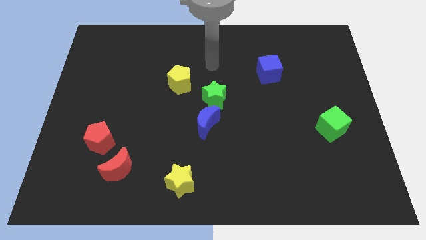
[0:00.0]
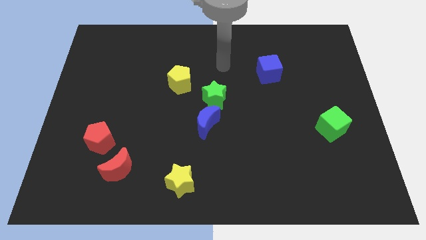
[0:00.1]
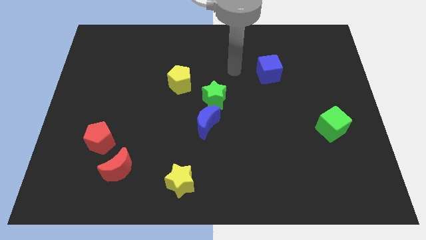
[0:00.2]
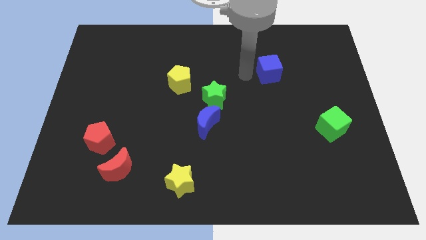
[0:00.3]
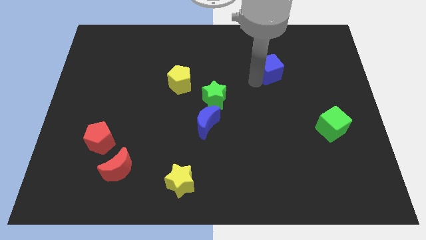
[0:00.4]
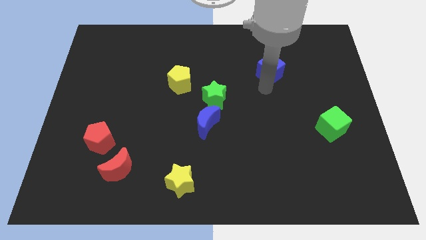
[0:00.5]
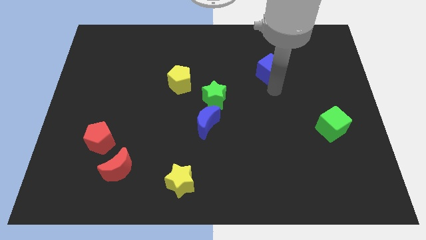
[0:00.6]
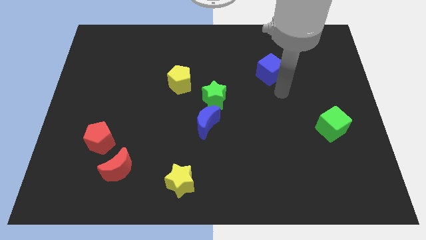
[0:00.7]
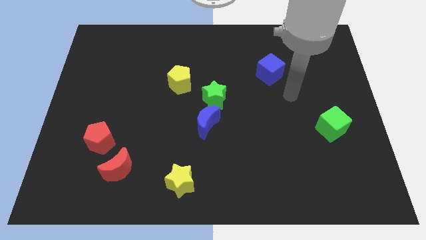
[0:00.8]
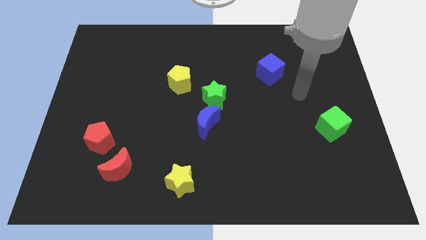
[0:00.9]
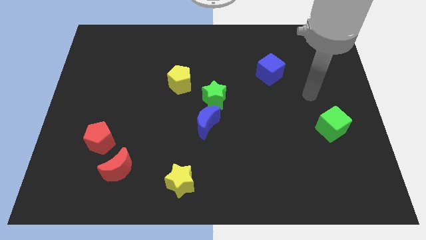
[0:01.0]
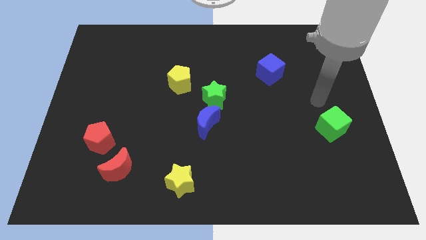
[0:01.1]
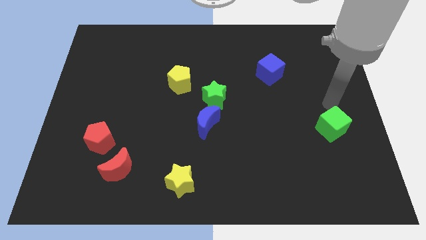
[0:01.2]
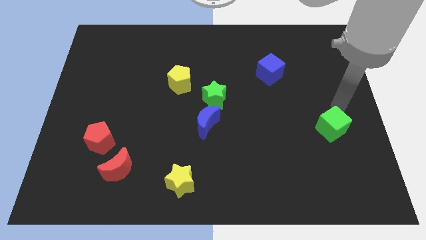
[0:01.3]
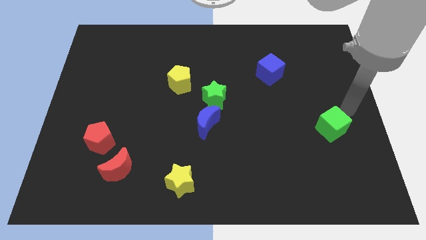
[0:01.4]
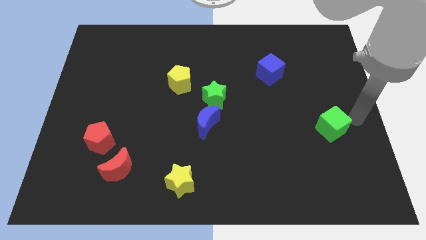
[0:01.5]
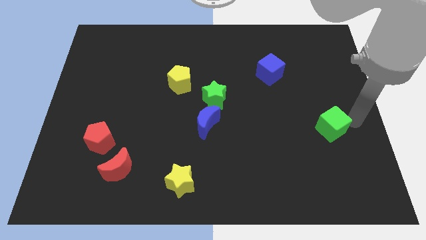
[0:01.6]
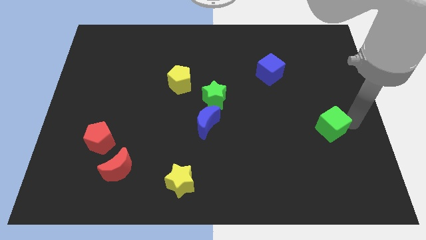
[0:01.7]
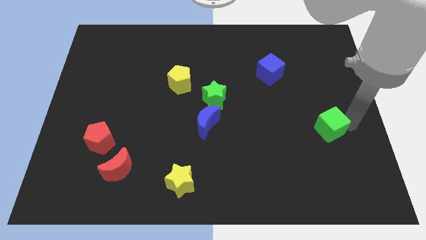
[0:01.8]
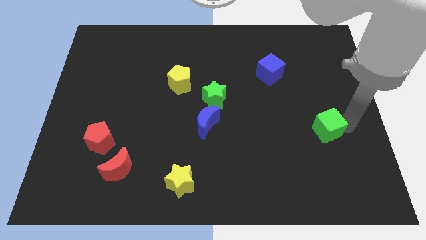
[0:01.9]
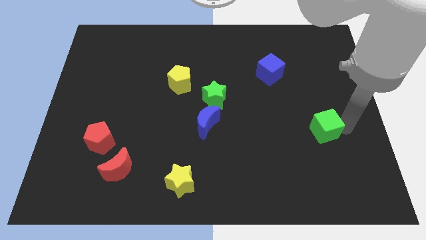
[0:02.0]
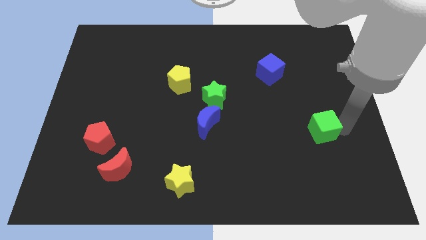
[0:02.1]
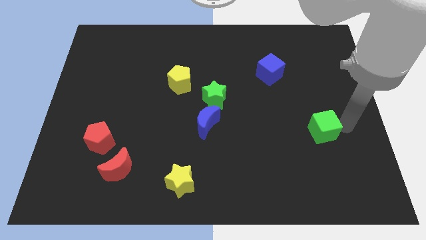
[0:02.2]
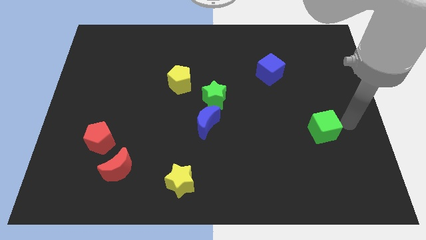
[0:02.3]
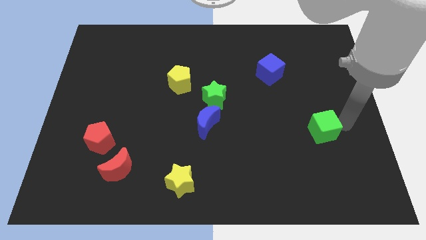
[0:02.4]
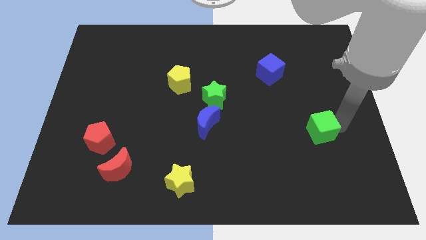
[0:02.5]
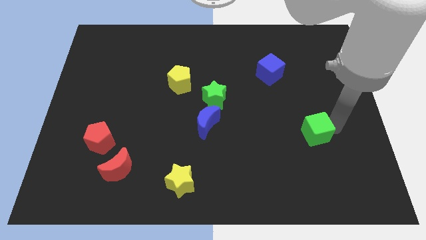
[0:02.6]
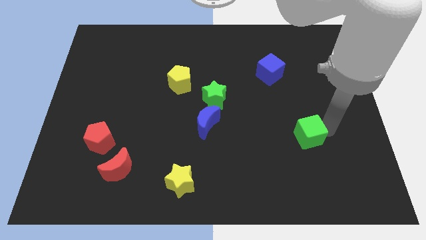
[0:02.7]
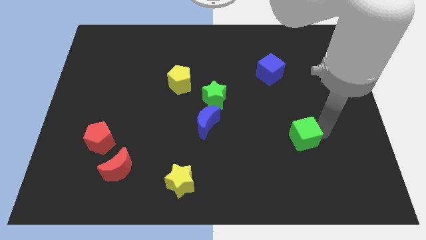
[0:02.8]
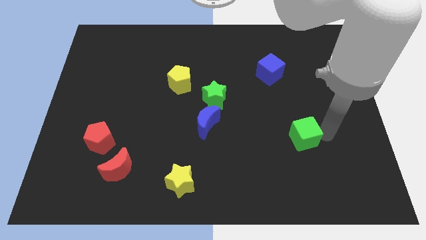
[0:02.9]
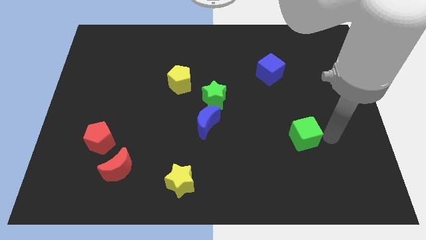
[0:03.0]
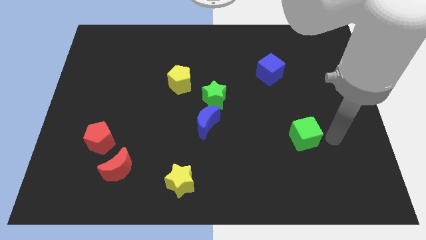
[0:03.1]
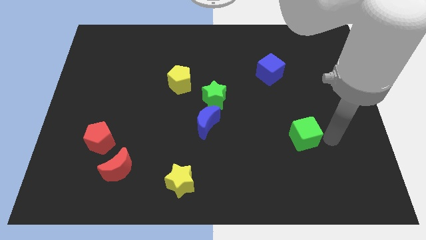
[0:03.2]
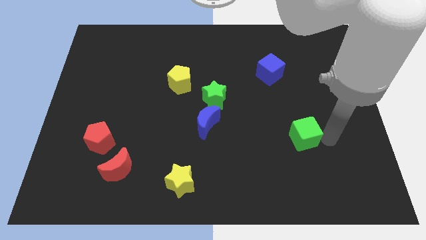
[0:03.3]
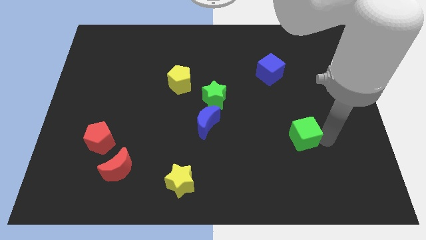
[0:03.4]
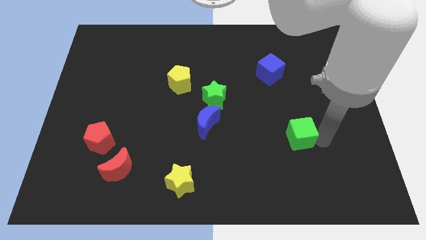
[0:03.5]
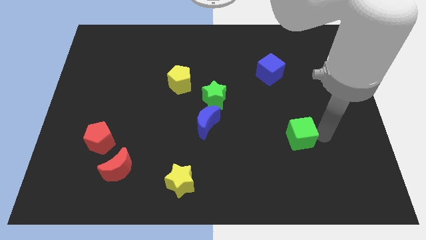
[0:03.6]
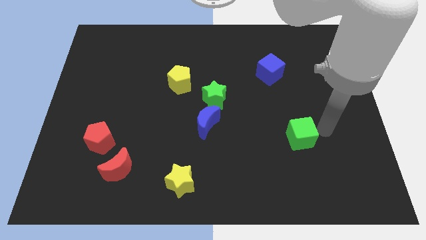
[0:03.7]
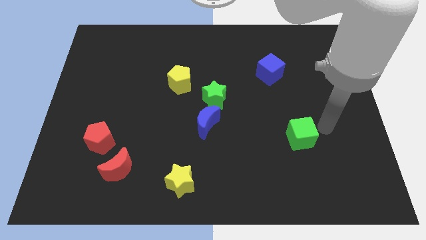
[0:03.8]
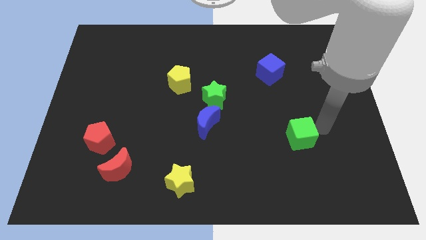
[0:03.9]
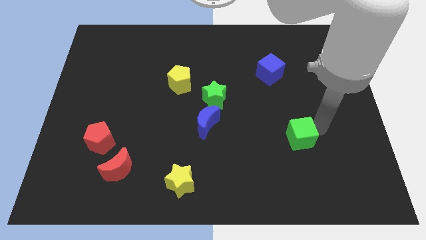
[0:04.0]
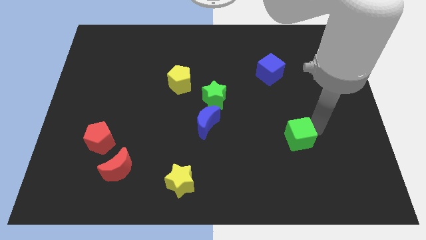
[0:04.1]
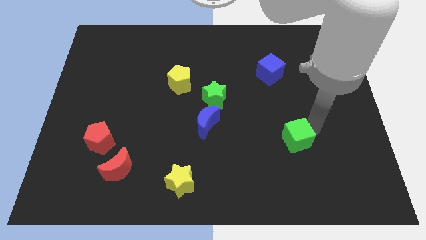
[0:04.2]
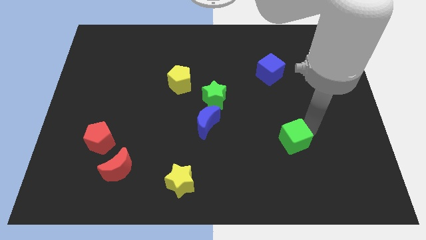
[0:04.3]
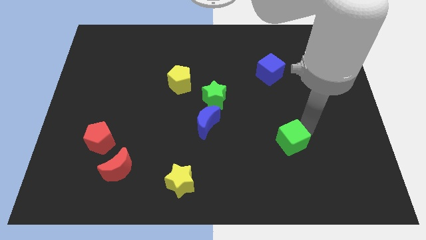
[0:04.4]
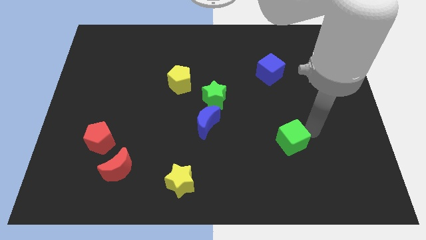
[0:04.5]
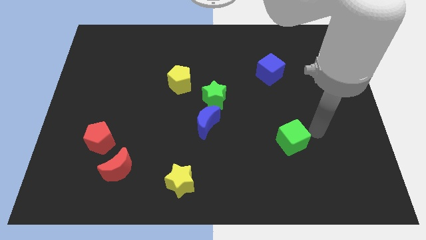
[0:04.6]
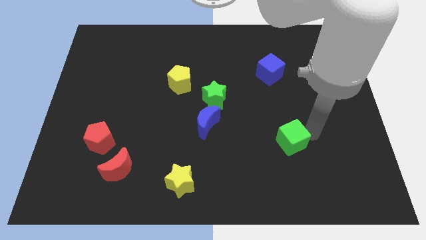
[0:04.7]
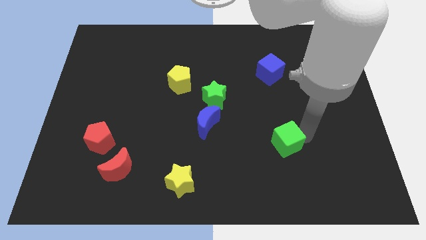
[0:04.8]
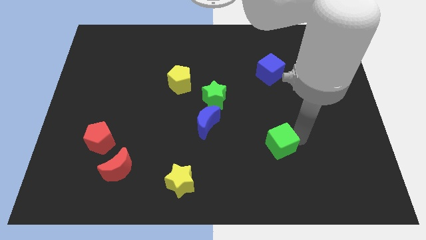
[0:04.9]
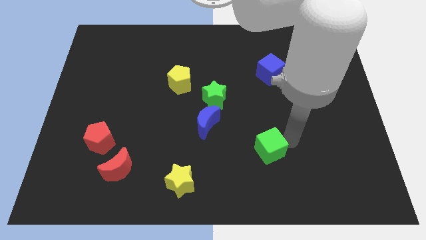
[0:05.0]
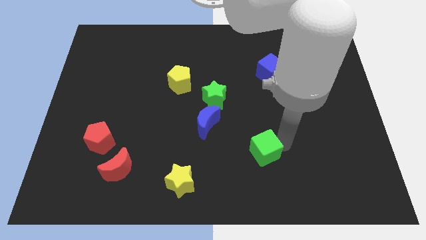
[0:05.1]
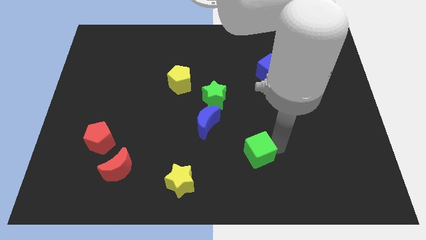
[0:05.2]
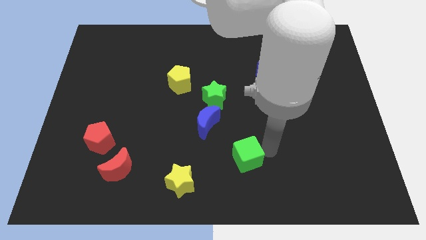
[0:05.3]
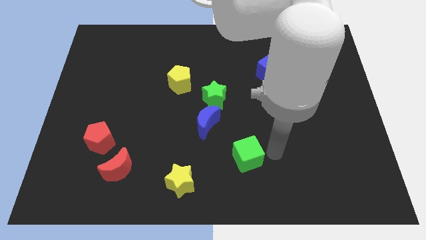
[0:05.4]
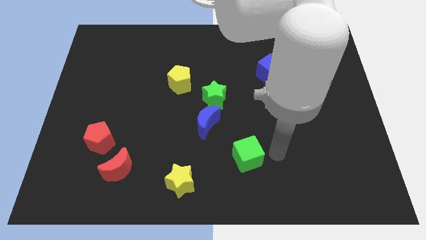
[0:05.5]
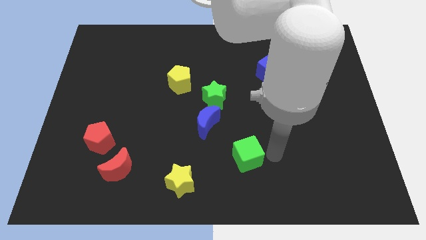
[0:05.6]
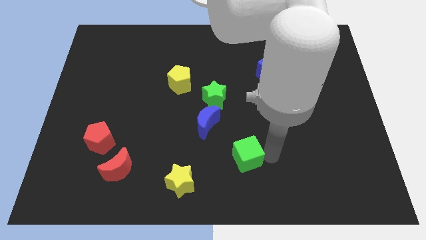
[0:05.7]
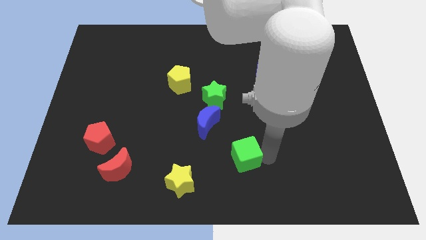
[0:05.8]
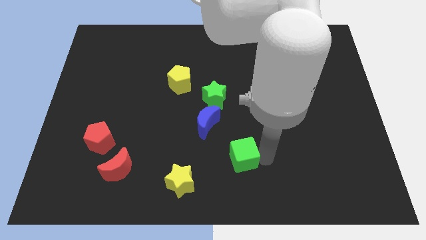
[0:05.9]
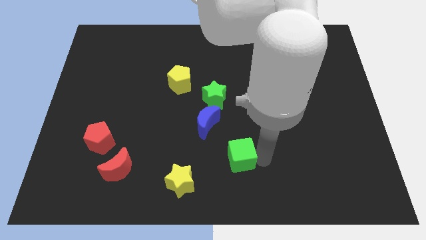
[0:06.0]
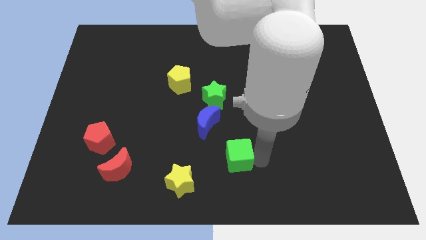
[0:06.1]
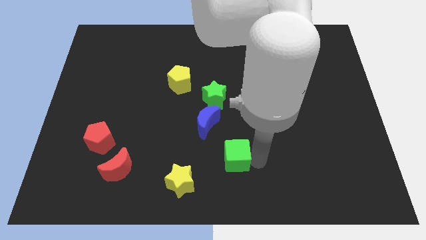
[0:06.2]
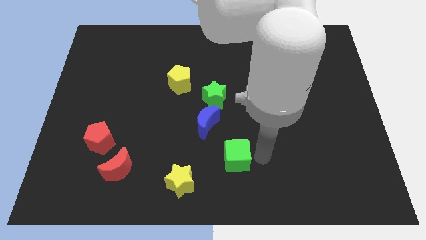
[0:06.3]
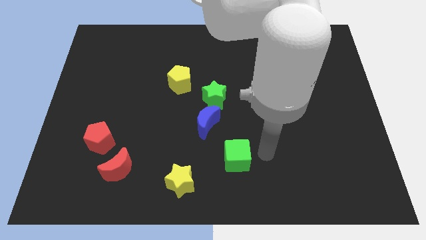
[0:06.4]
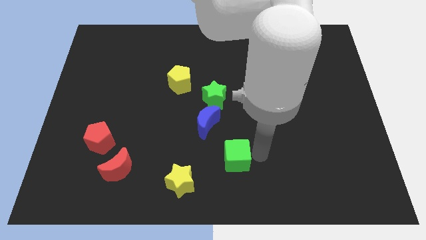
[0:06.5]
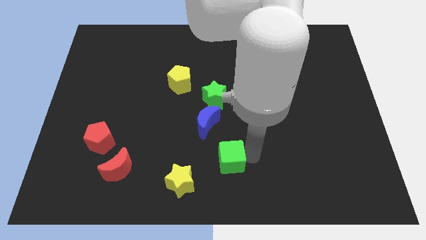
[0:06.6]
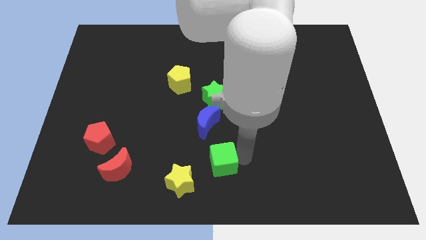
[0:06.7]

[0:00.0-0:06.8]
put the green cube to the bottom side of the blue moon

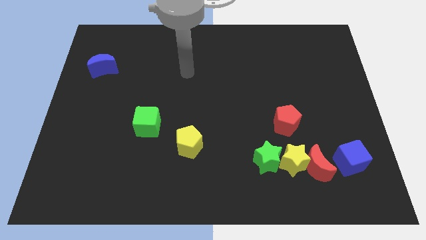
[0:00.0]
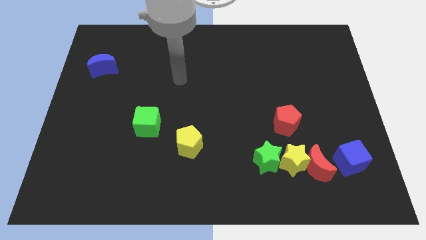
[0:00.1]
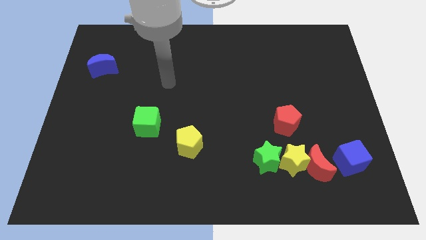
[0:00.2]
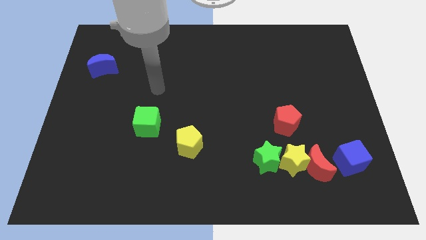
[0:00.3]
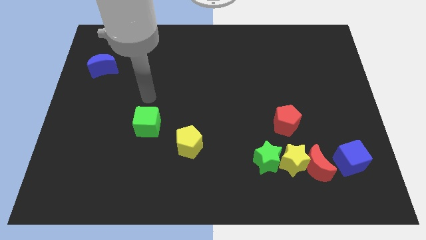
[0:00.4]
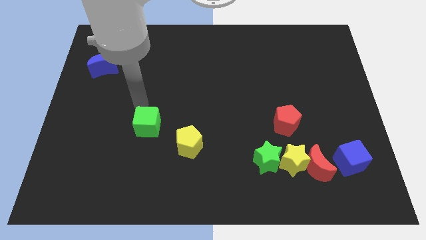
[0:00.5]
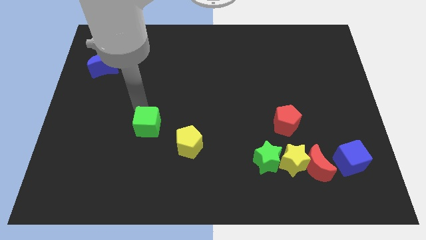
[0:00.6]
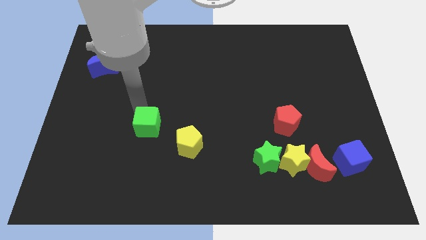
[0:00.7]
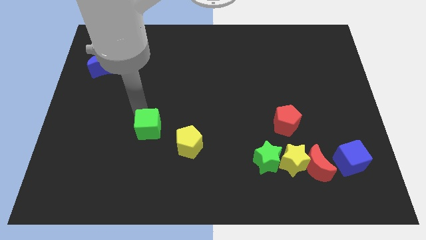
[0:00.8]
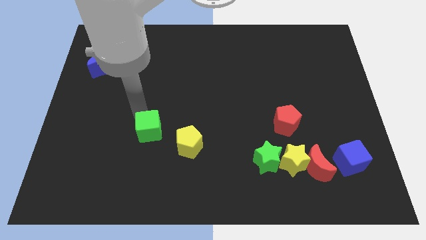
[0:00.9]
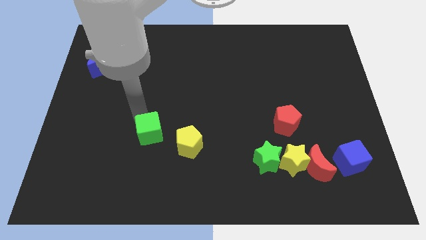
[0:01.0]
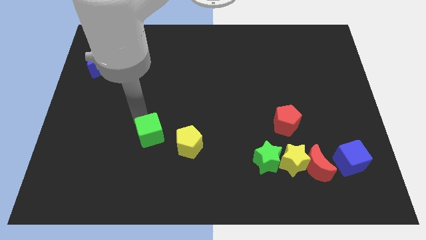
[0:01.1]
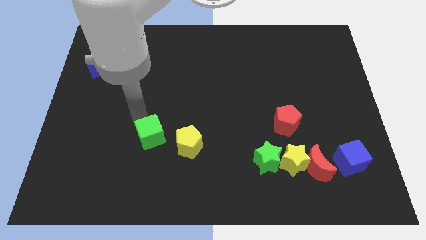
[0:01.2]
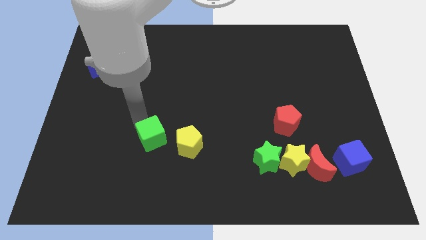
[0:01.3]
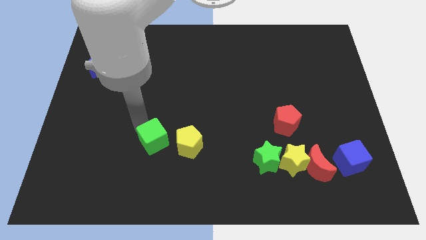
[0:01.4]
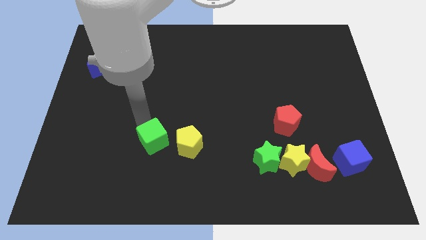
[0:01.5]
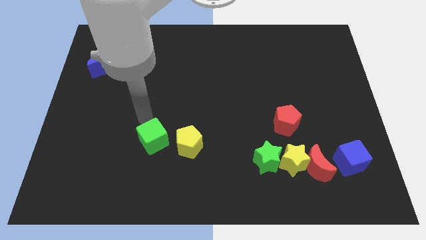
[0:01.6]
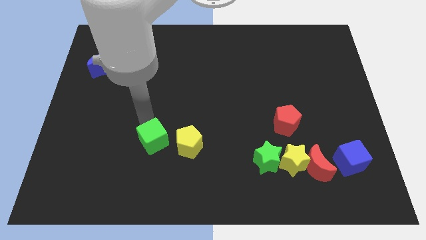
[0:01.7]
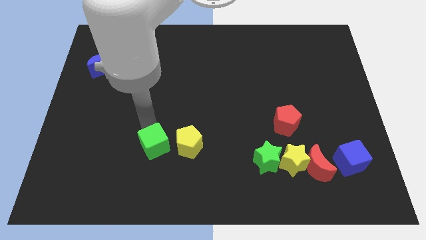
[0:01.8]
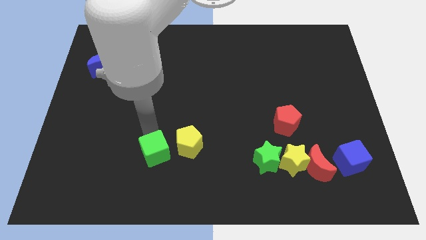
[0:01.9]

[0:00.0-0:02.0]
move the green cube diagonally down and to the left of the yellow pentagon
